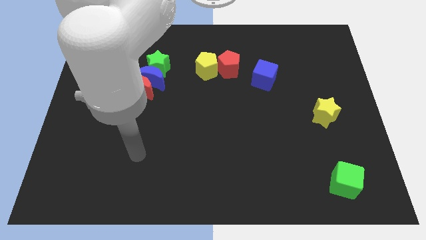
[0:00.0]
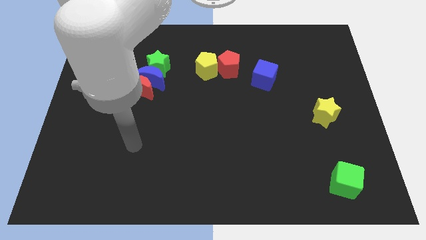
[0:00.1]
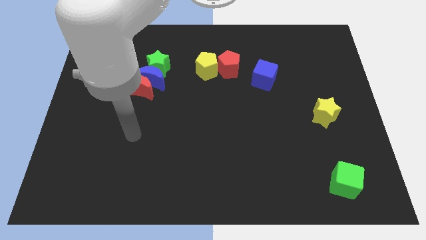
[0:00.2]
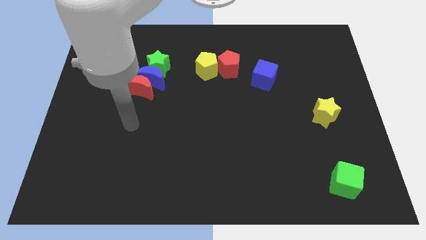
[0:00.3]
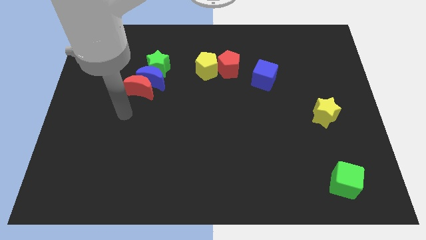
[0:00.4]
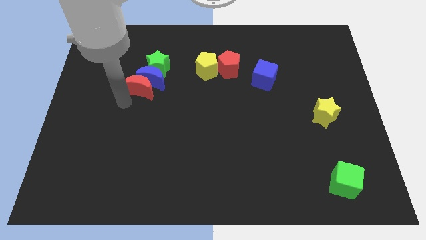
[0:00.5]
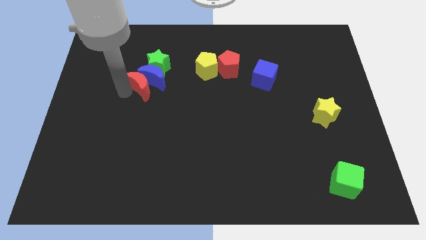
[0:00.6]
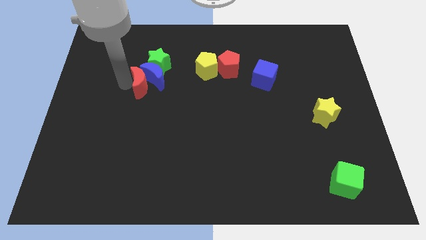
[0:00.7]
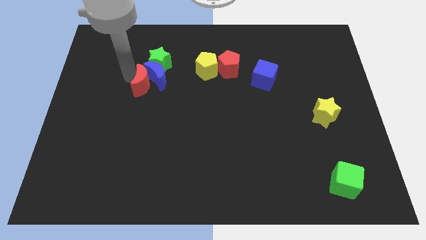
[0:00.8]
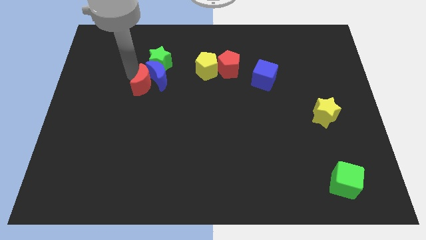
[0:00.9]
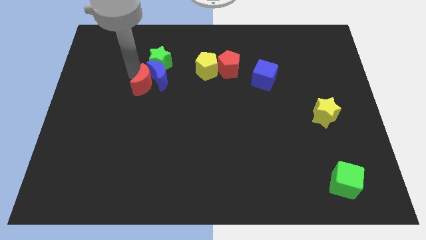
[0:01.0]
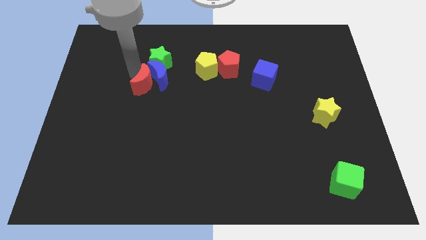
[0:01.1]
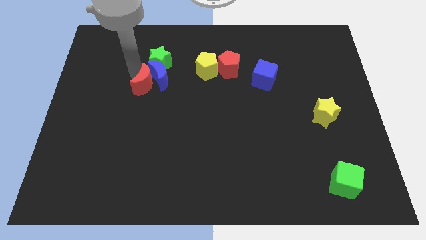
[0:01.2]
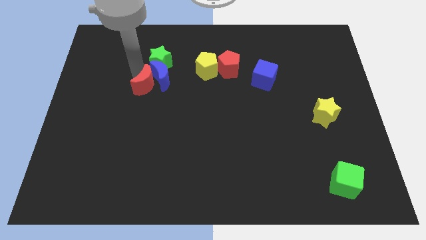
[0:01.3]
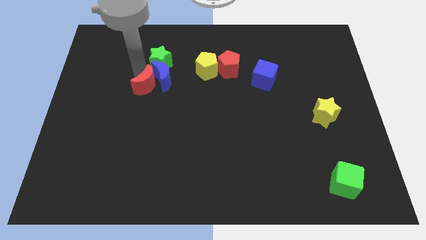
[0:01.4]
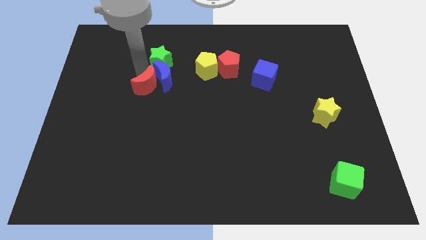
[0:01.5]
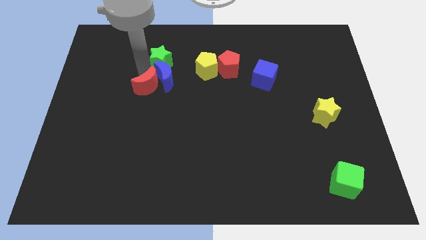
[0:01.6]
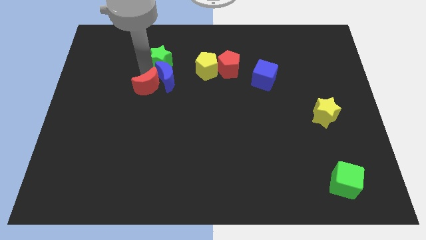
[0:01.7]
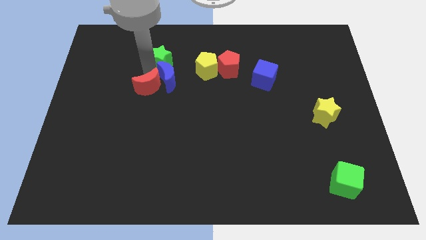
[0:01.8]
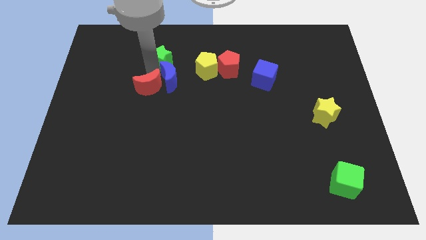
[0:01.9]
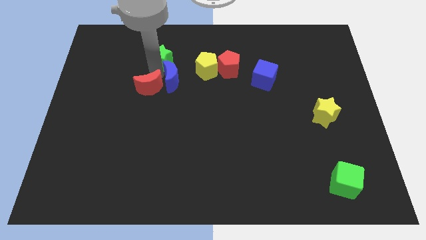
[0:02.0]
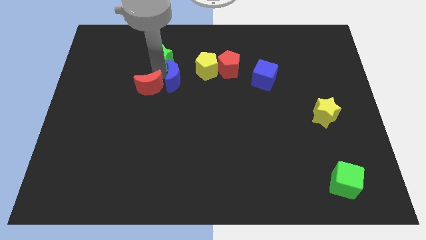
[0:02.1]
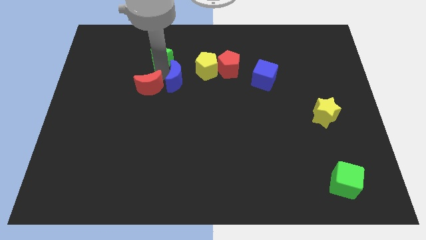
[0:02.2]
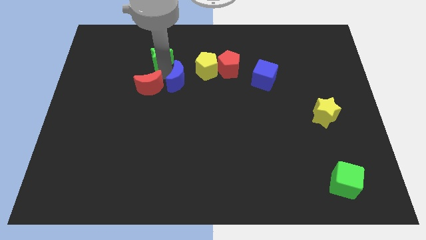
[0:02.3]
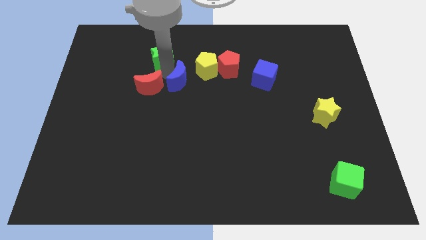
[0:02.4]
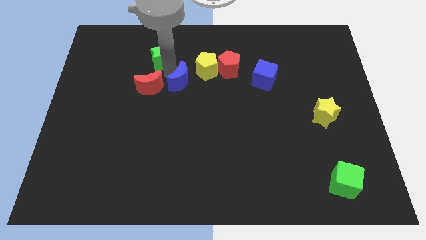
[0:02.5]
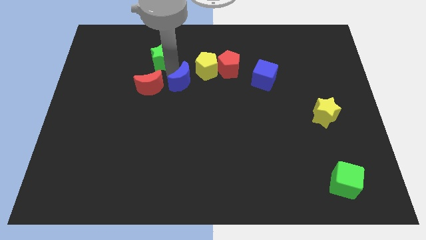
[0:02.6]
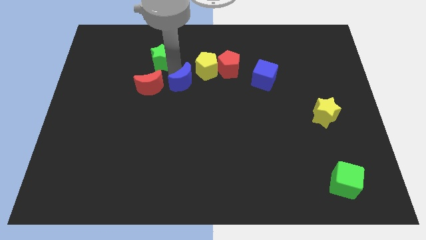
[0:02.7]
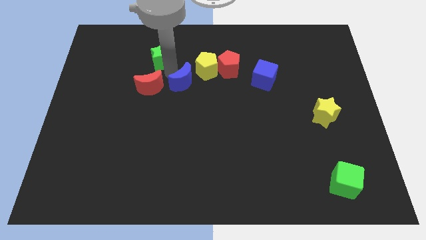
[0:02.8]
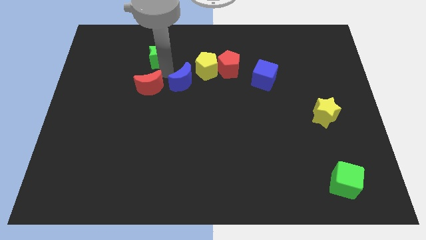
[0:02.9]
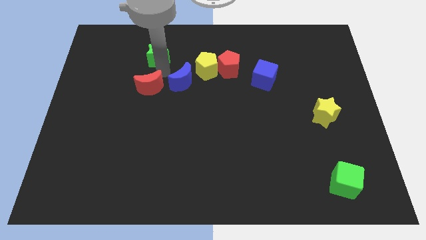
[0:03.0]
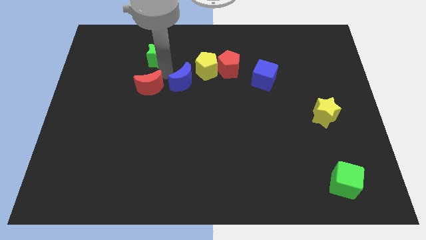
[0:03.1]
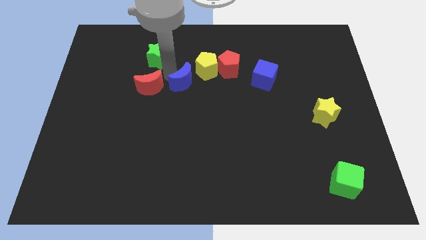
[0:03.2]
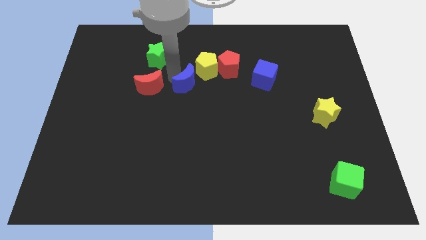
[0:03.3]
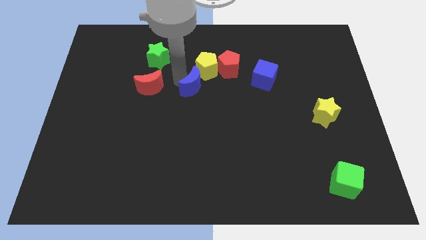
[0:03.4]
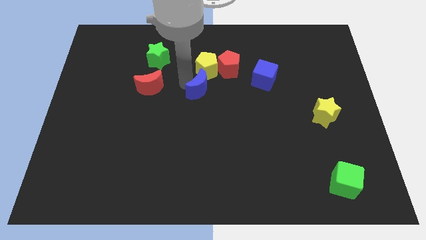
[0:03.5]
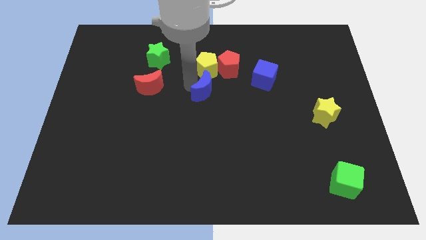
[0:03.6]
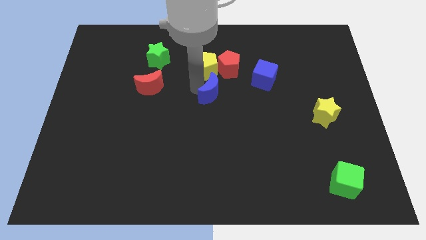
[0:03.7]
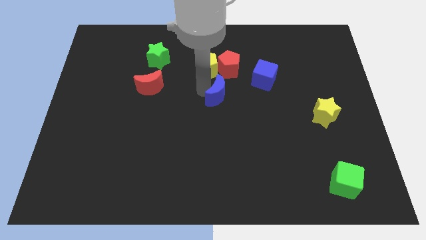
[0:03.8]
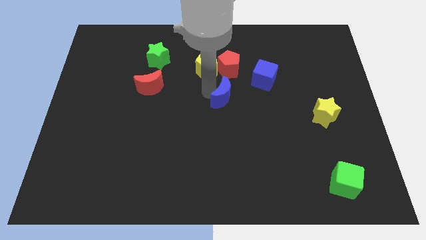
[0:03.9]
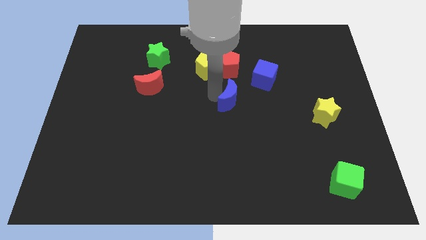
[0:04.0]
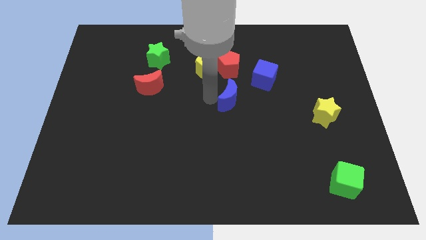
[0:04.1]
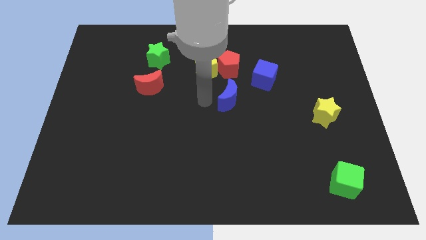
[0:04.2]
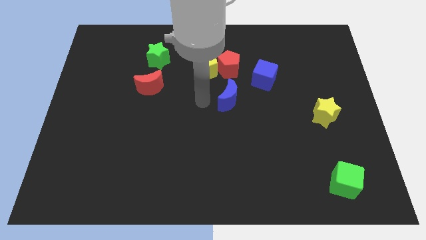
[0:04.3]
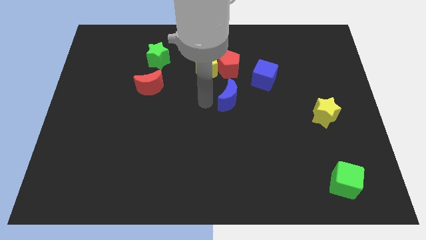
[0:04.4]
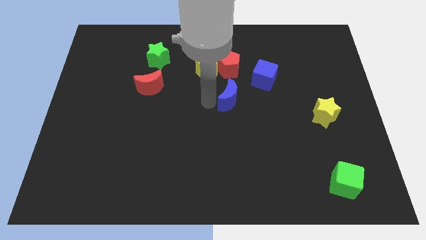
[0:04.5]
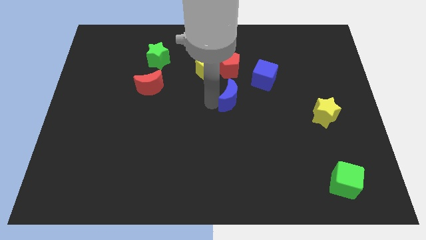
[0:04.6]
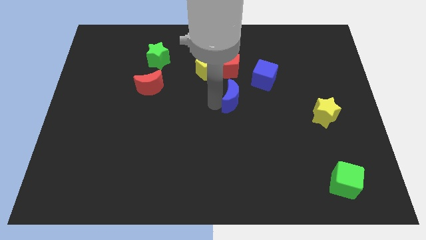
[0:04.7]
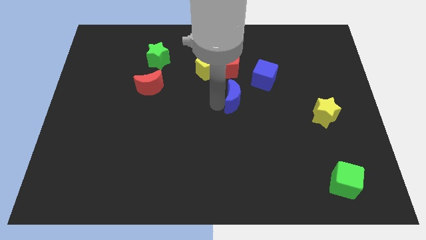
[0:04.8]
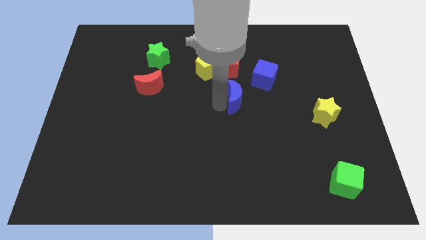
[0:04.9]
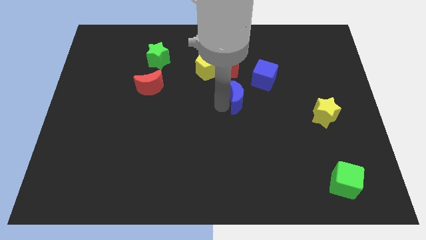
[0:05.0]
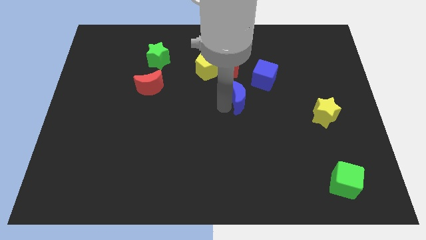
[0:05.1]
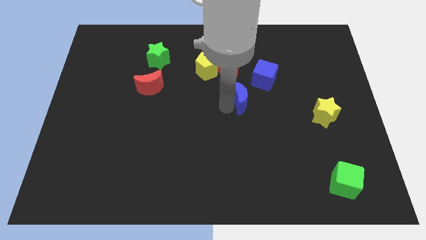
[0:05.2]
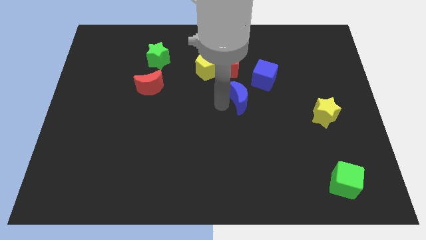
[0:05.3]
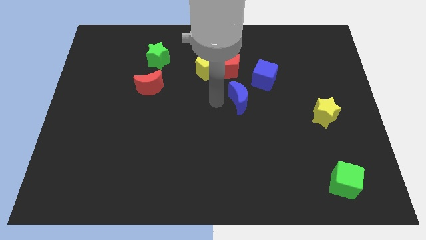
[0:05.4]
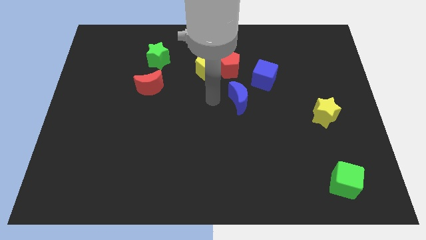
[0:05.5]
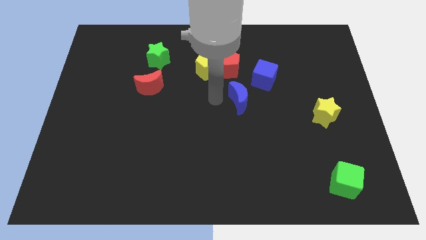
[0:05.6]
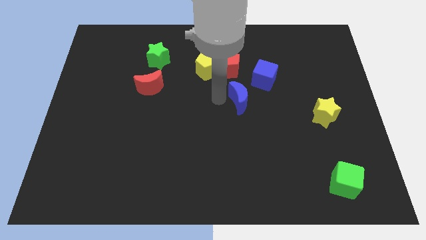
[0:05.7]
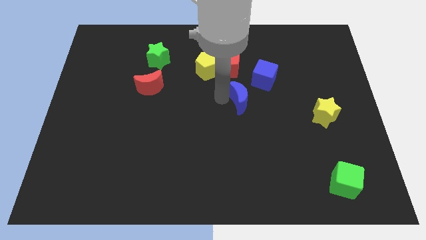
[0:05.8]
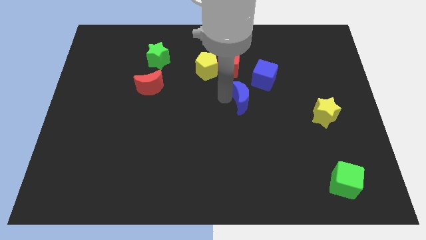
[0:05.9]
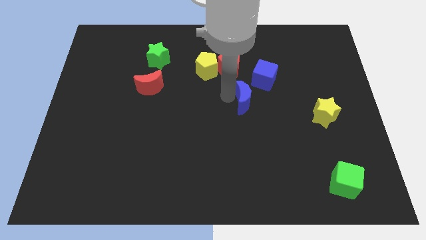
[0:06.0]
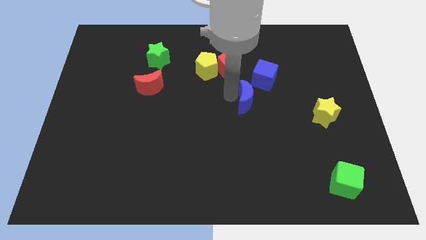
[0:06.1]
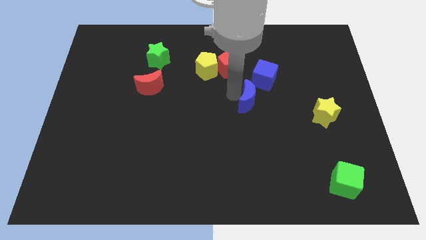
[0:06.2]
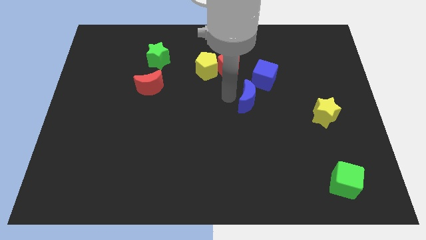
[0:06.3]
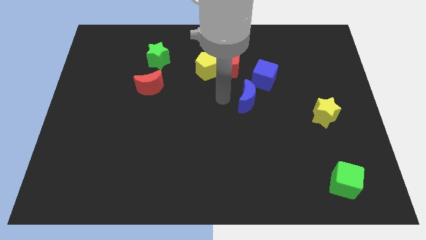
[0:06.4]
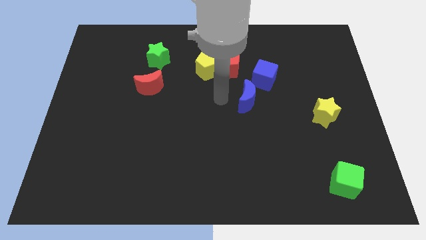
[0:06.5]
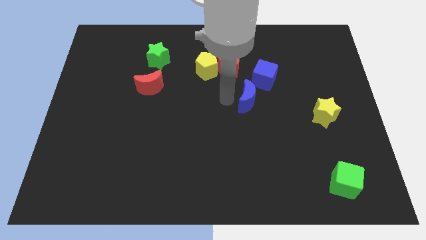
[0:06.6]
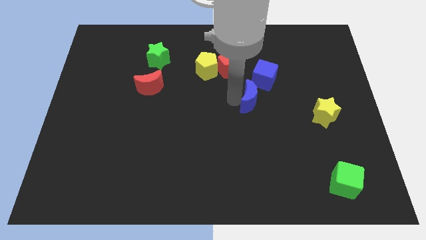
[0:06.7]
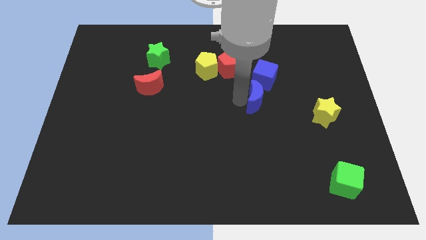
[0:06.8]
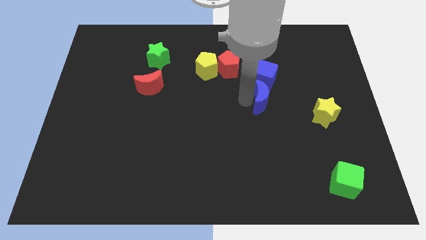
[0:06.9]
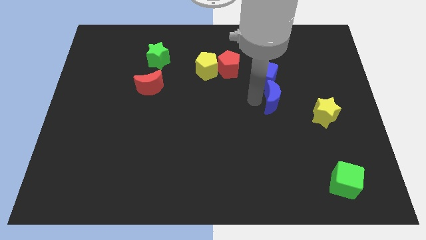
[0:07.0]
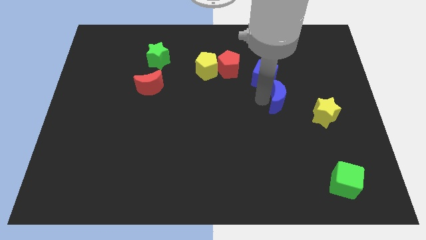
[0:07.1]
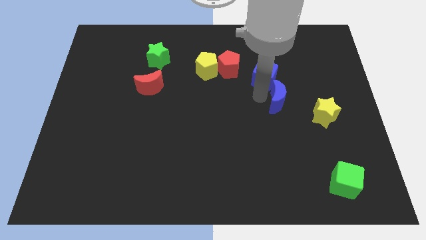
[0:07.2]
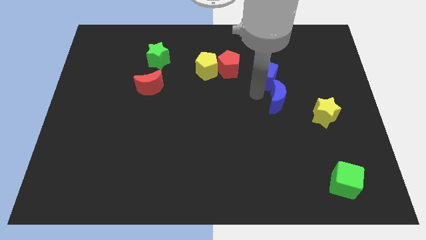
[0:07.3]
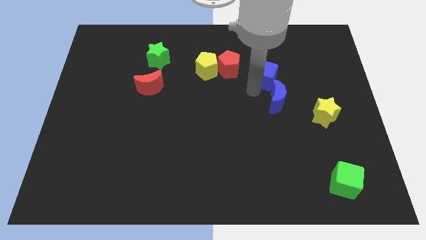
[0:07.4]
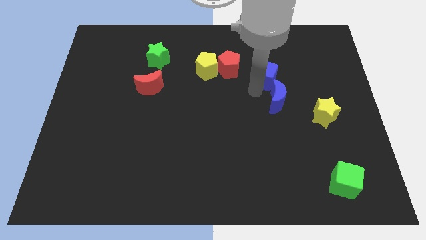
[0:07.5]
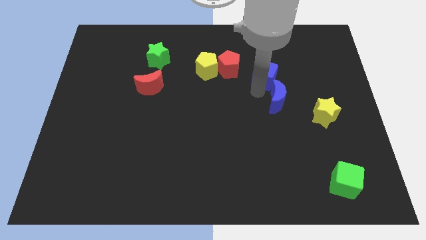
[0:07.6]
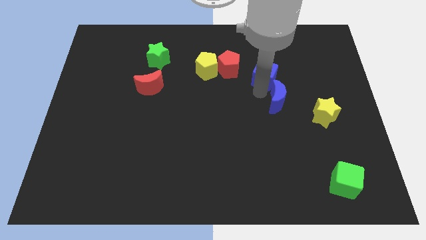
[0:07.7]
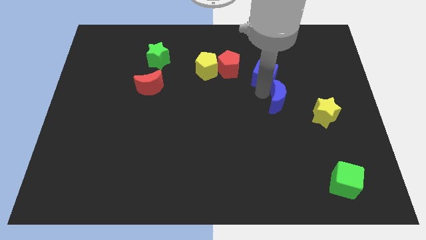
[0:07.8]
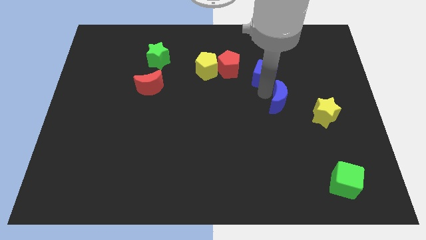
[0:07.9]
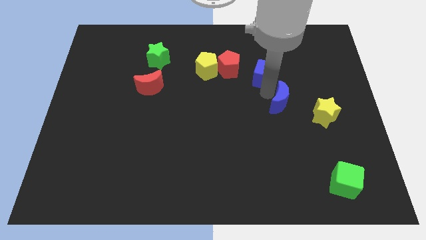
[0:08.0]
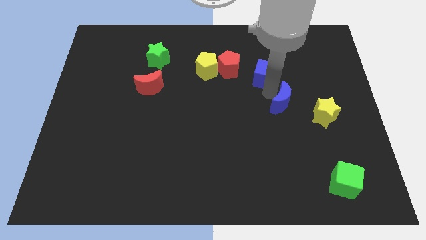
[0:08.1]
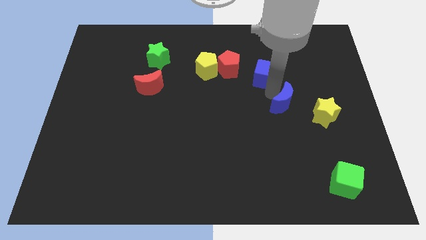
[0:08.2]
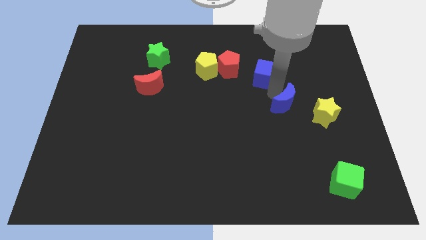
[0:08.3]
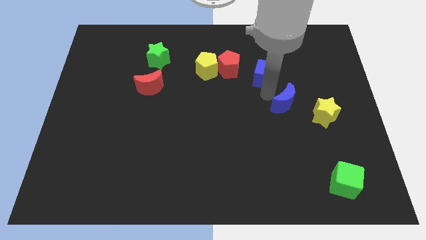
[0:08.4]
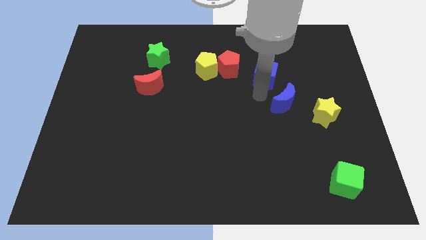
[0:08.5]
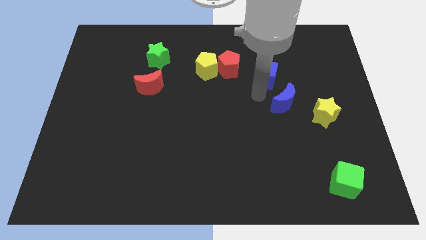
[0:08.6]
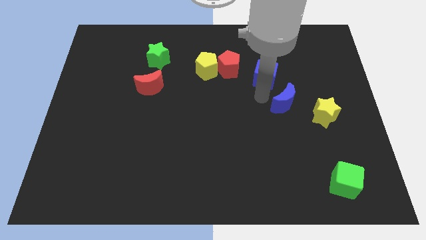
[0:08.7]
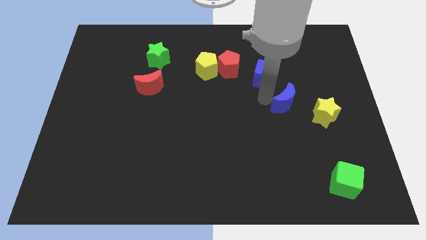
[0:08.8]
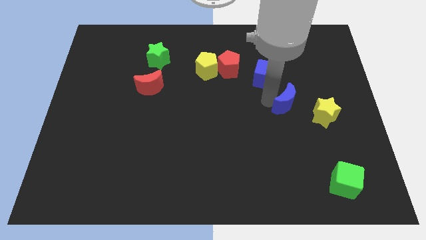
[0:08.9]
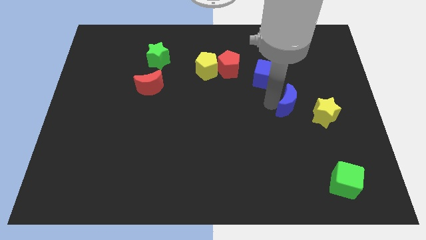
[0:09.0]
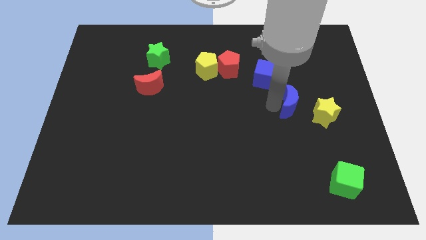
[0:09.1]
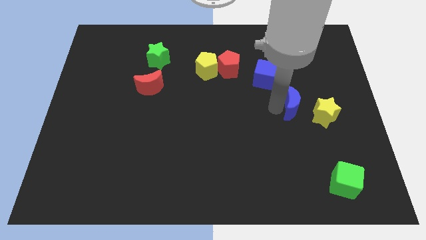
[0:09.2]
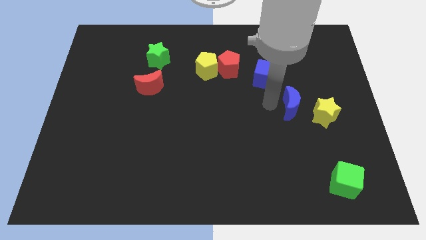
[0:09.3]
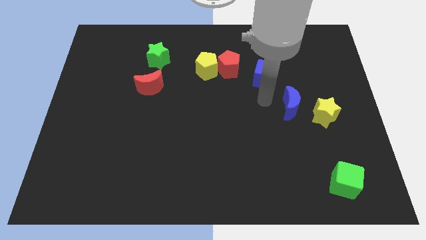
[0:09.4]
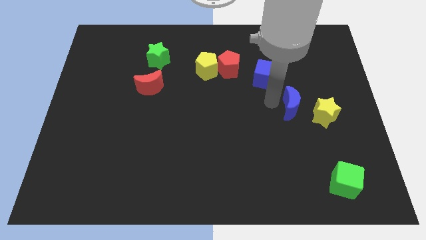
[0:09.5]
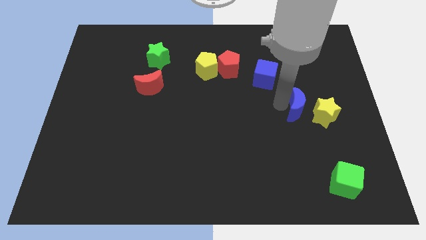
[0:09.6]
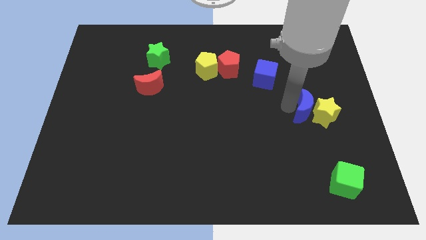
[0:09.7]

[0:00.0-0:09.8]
slide the blue moon close to the yellow star
